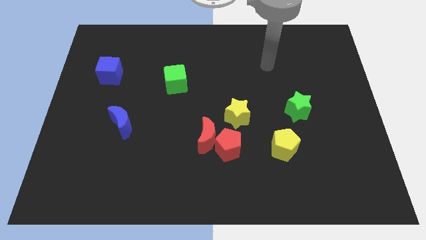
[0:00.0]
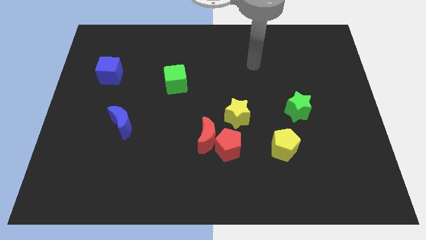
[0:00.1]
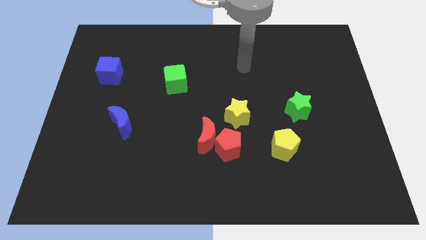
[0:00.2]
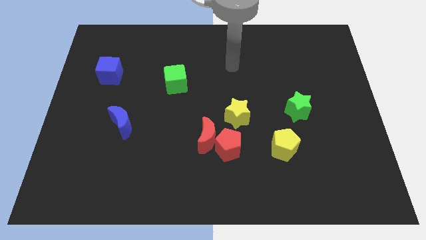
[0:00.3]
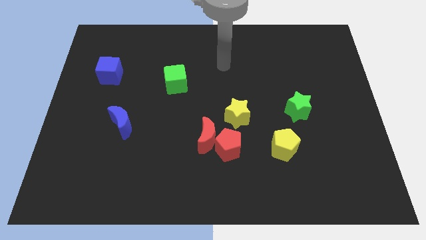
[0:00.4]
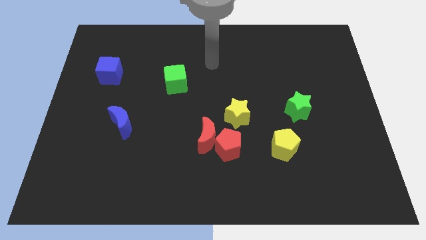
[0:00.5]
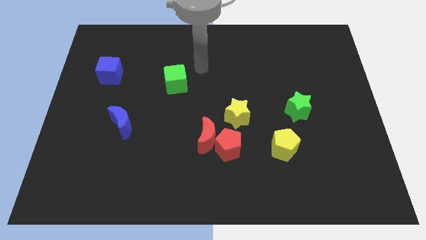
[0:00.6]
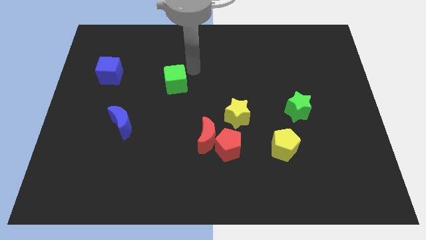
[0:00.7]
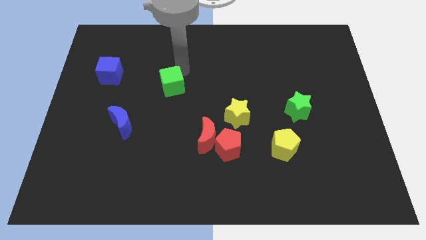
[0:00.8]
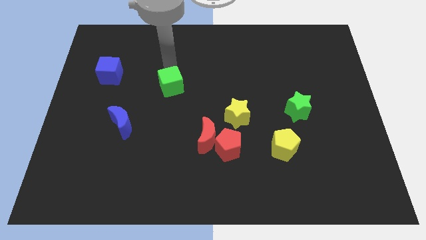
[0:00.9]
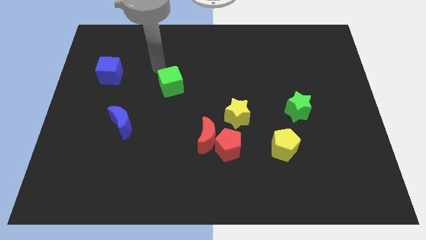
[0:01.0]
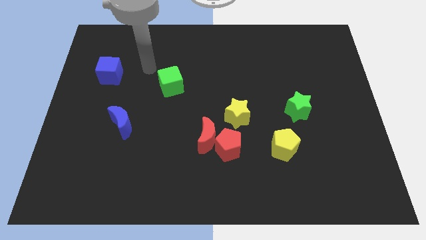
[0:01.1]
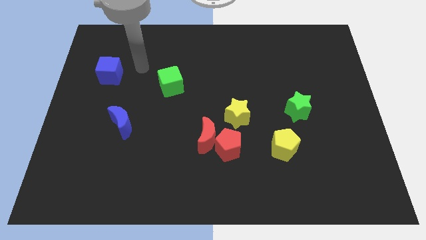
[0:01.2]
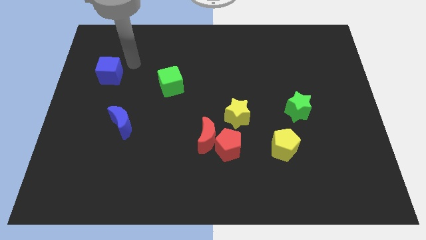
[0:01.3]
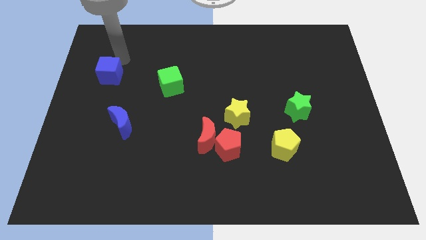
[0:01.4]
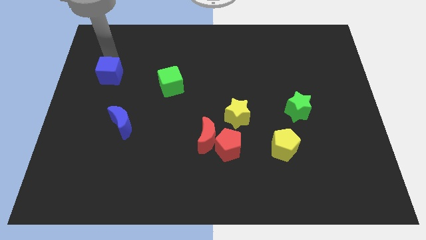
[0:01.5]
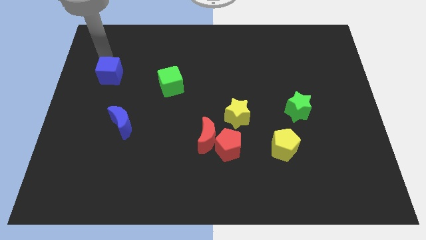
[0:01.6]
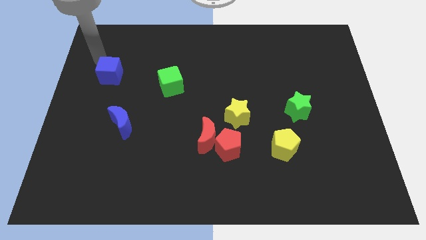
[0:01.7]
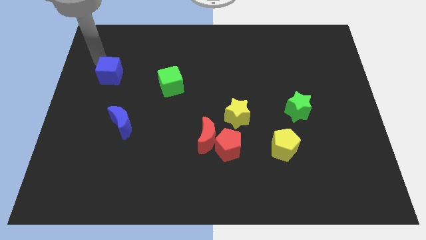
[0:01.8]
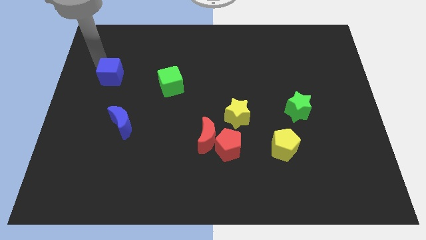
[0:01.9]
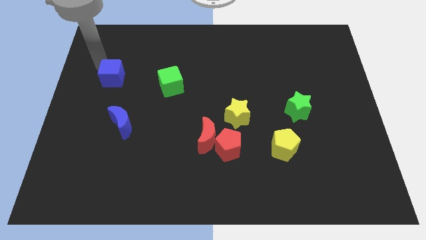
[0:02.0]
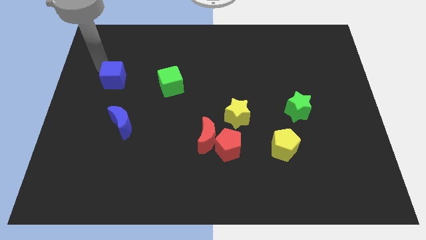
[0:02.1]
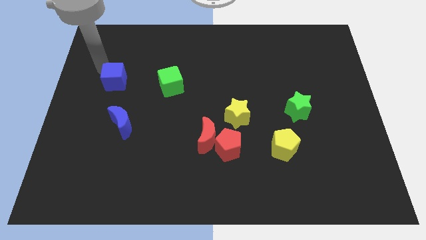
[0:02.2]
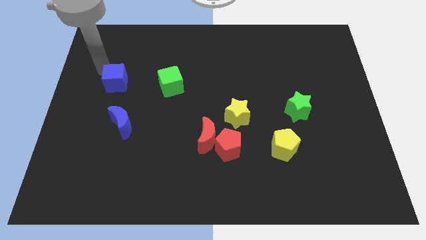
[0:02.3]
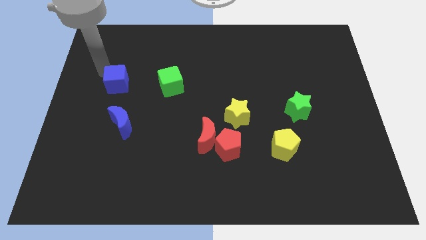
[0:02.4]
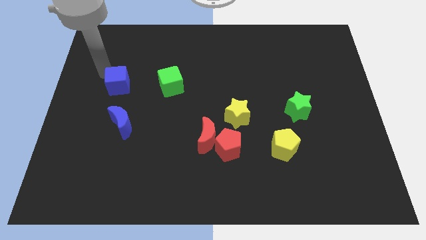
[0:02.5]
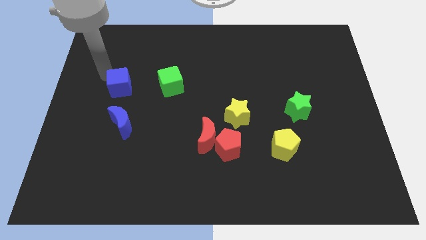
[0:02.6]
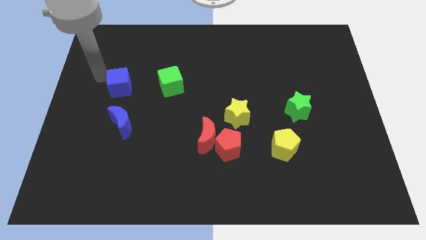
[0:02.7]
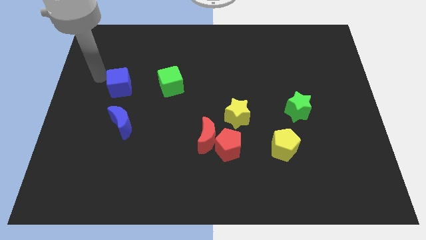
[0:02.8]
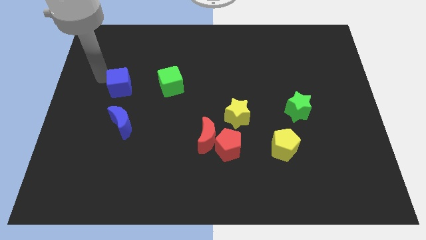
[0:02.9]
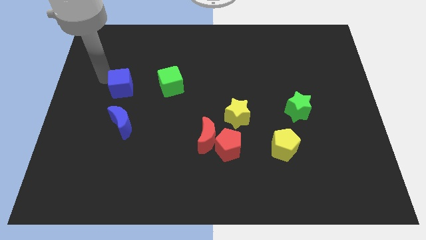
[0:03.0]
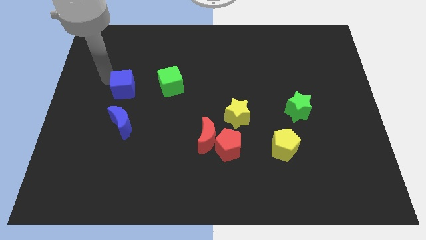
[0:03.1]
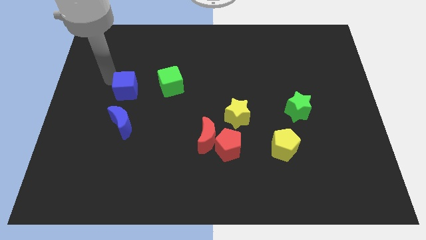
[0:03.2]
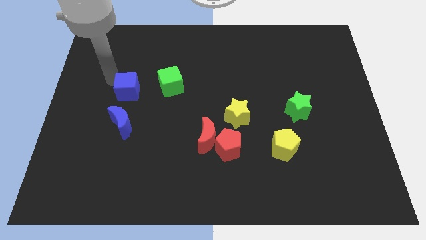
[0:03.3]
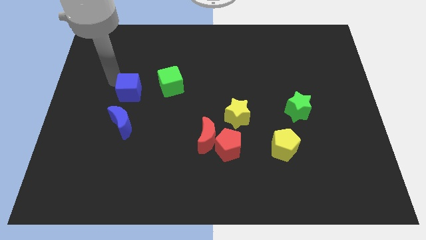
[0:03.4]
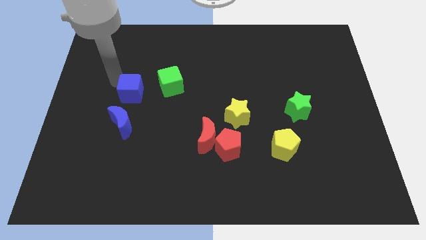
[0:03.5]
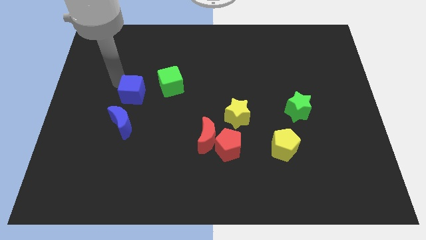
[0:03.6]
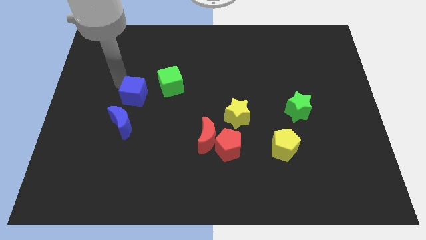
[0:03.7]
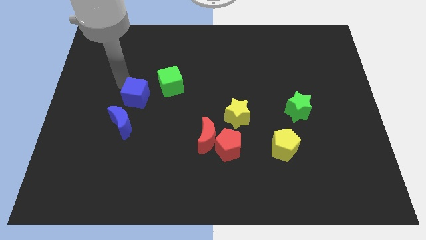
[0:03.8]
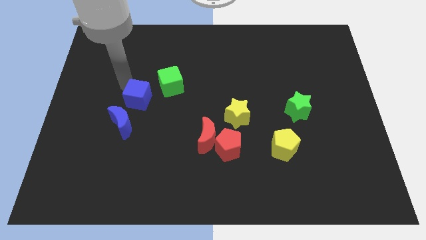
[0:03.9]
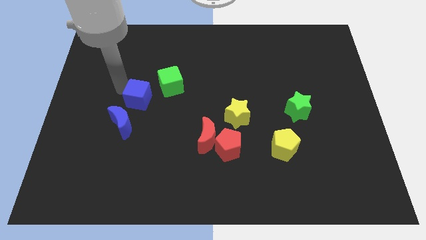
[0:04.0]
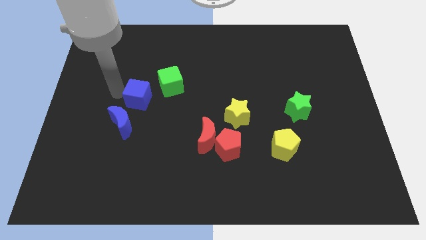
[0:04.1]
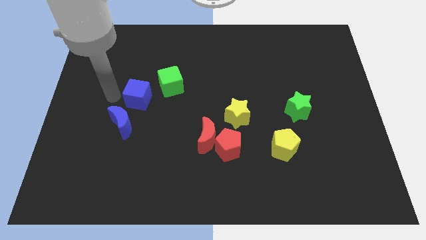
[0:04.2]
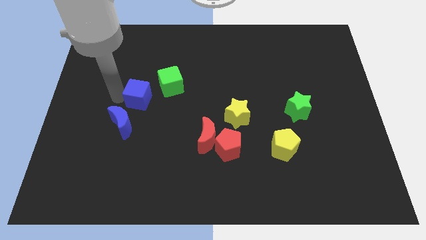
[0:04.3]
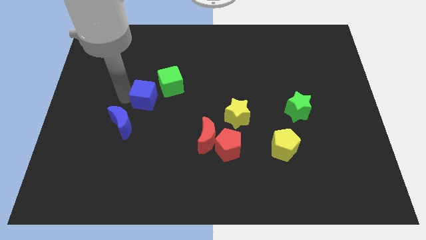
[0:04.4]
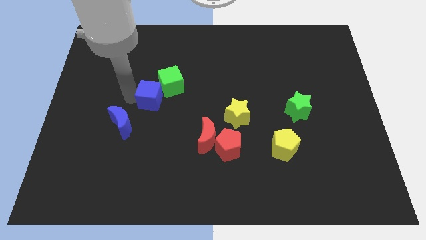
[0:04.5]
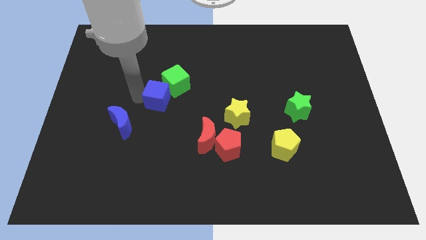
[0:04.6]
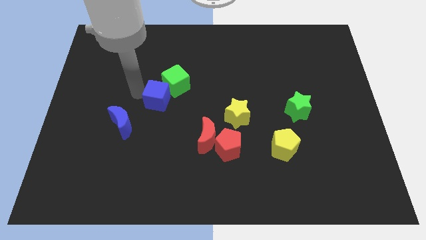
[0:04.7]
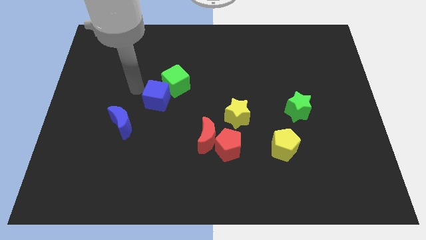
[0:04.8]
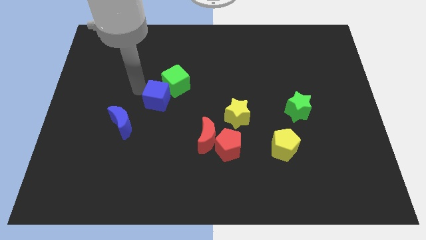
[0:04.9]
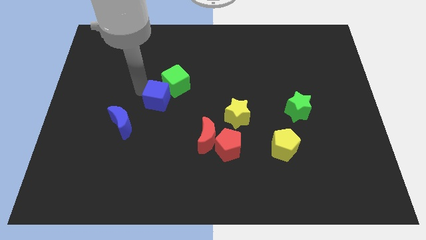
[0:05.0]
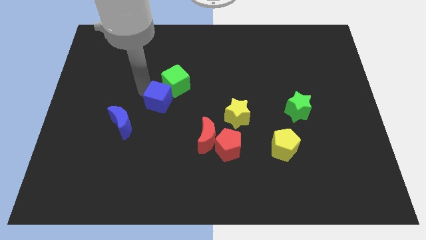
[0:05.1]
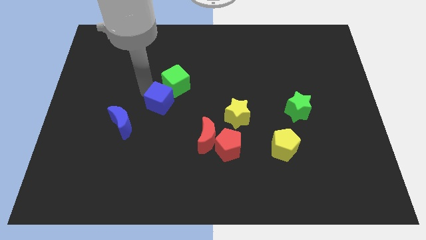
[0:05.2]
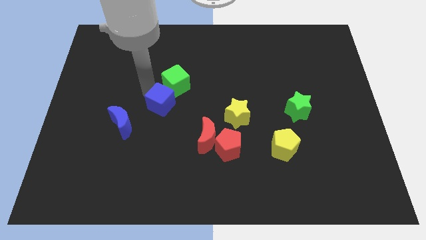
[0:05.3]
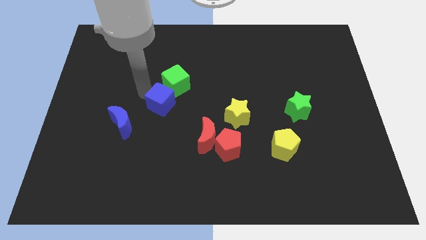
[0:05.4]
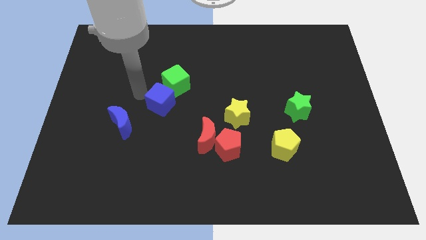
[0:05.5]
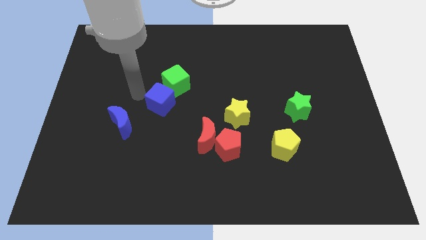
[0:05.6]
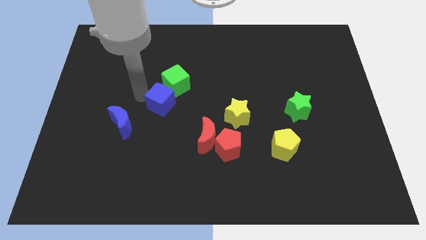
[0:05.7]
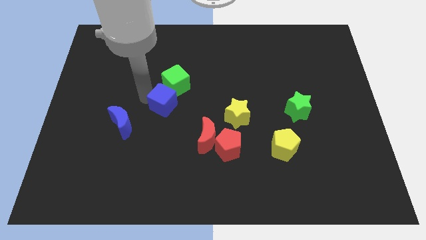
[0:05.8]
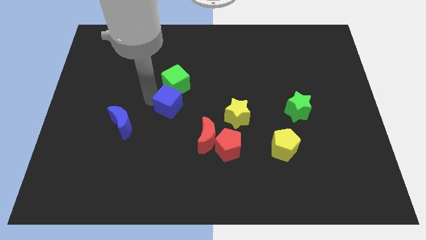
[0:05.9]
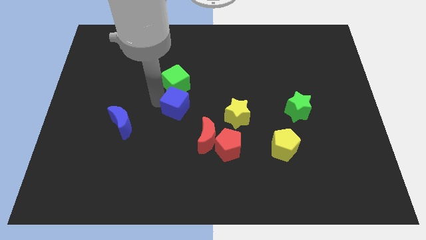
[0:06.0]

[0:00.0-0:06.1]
push the blue cube just left of the yellow star
